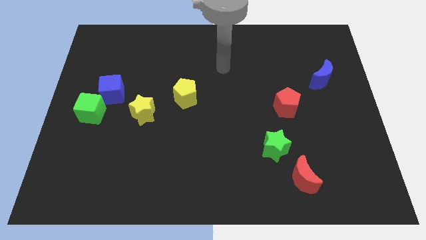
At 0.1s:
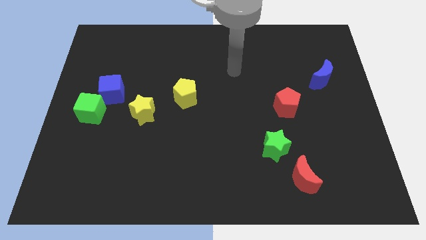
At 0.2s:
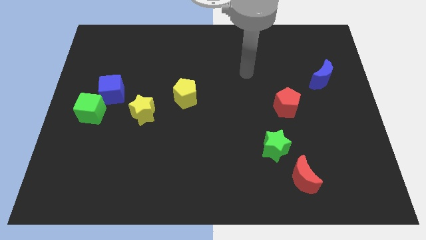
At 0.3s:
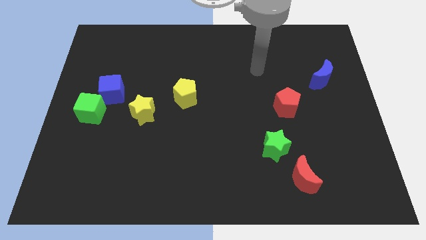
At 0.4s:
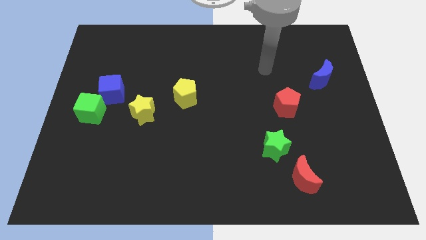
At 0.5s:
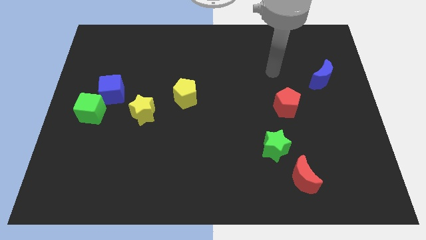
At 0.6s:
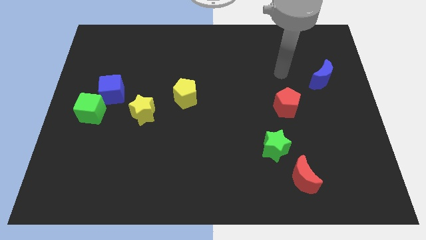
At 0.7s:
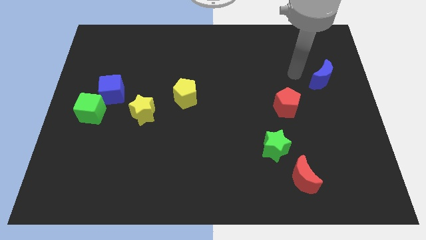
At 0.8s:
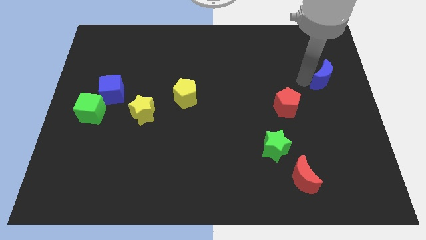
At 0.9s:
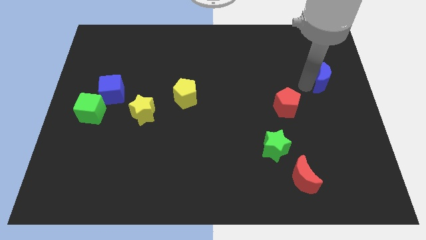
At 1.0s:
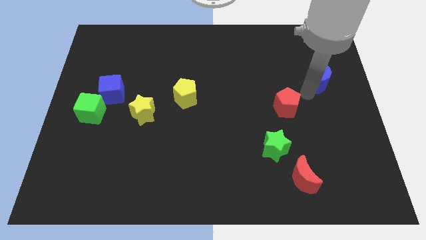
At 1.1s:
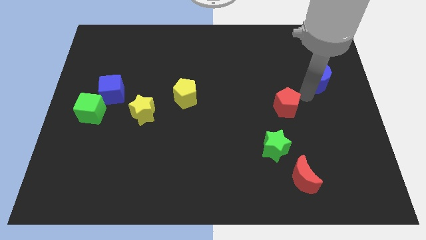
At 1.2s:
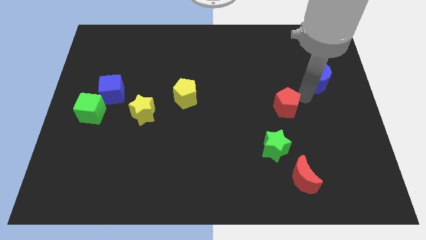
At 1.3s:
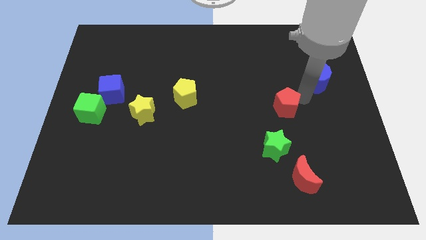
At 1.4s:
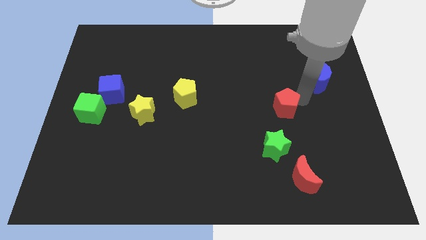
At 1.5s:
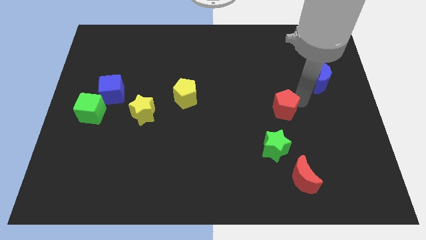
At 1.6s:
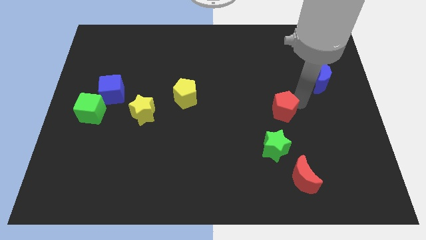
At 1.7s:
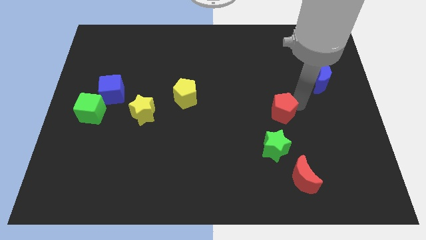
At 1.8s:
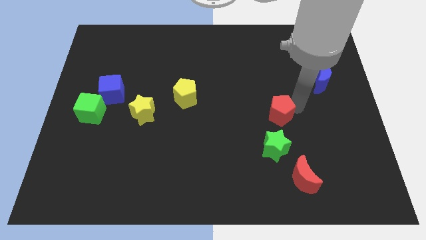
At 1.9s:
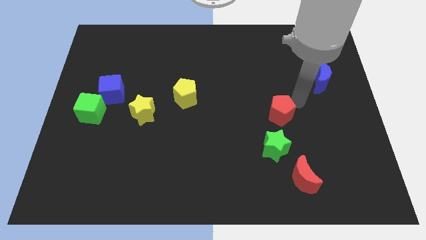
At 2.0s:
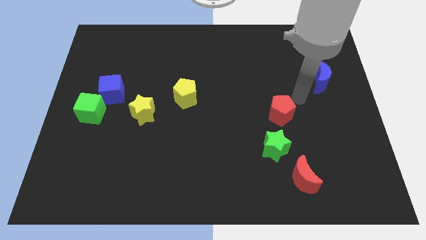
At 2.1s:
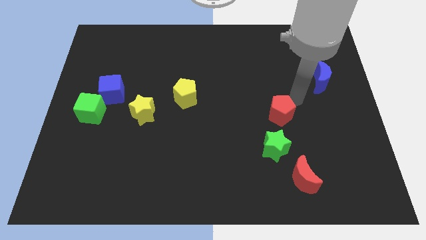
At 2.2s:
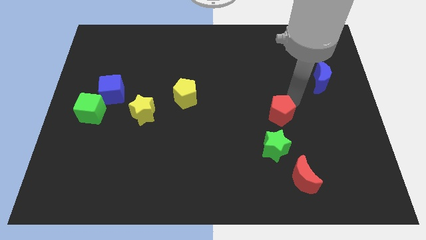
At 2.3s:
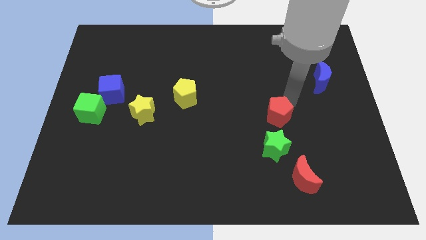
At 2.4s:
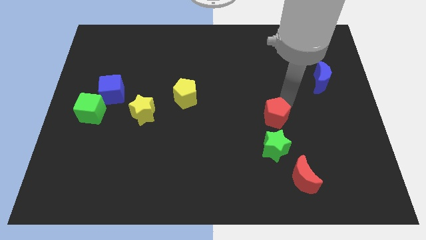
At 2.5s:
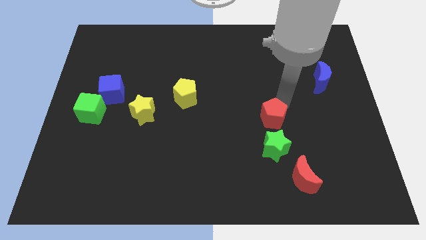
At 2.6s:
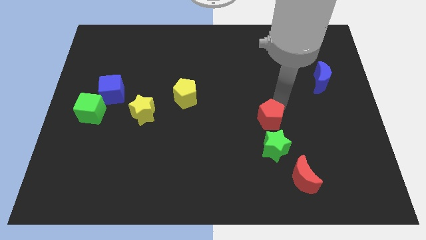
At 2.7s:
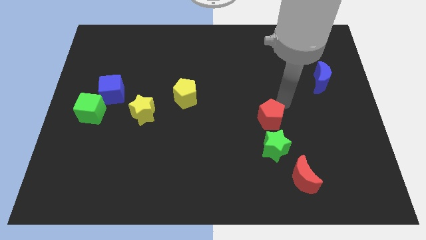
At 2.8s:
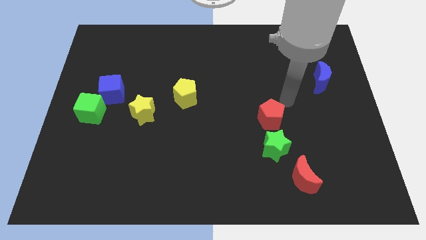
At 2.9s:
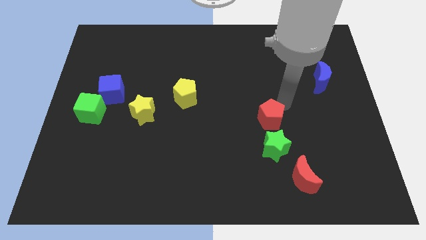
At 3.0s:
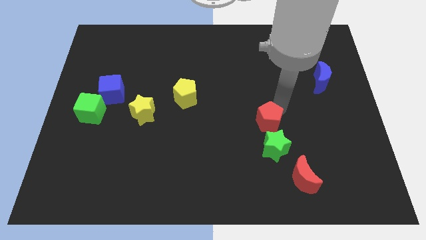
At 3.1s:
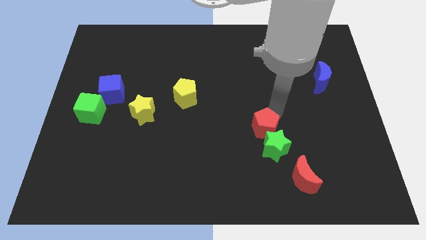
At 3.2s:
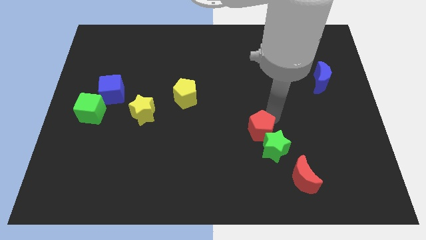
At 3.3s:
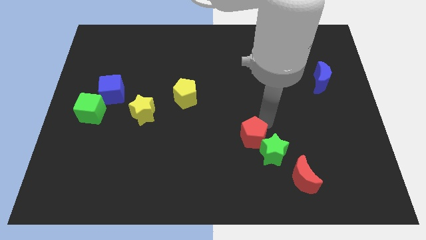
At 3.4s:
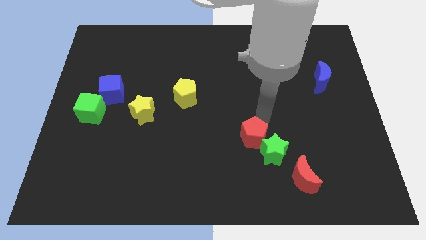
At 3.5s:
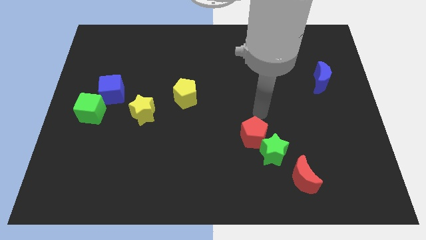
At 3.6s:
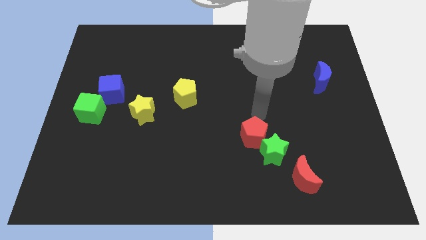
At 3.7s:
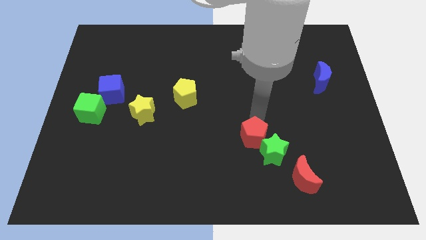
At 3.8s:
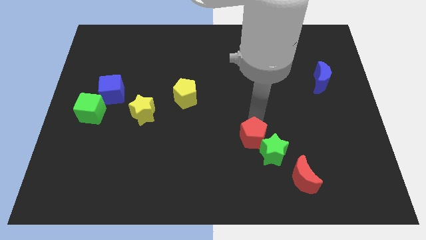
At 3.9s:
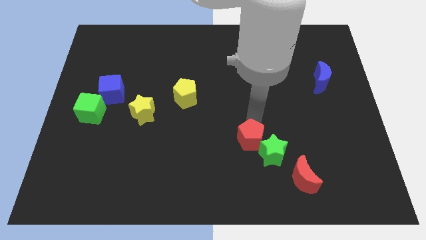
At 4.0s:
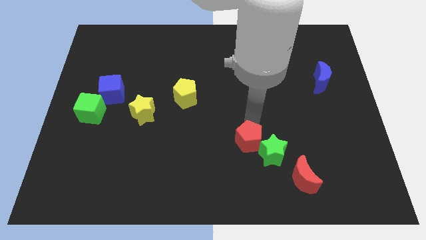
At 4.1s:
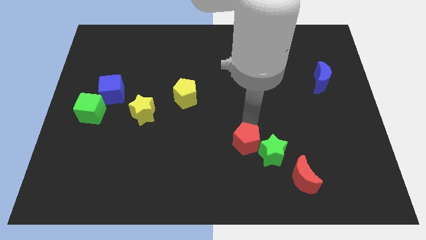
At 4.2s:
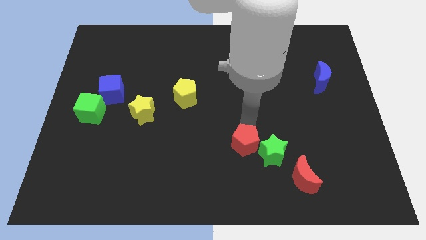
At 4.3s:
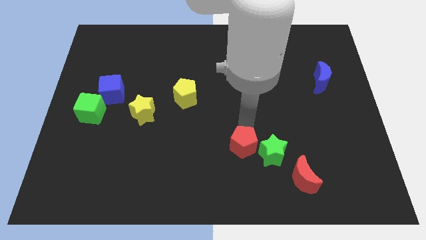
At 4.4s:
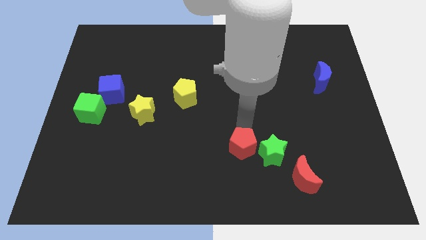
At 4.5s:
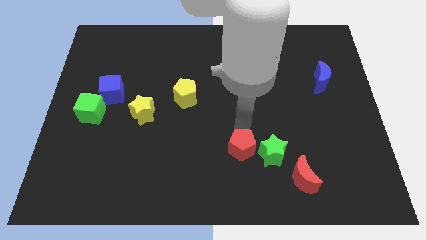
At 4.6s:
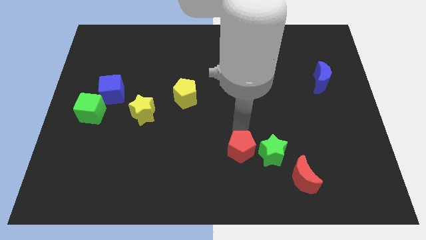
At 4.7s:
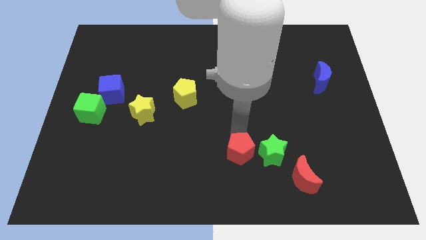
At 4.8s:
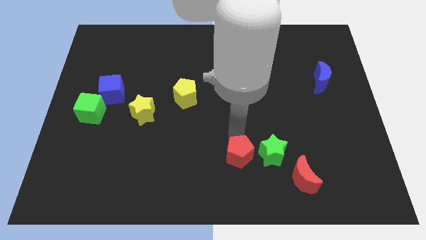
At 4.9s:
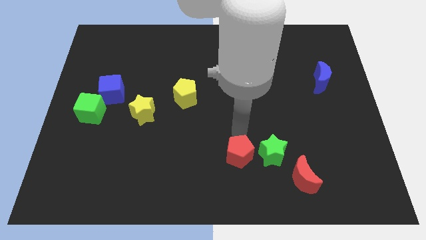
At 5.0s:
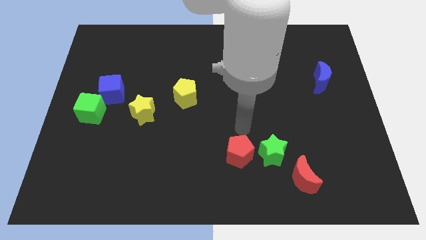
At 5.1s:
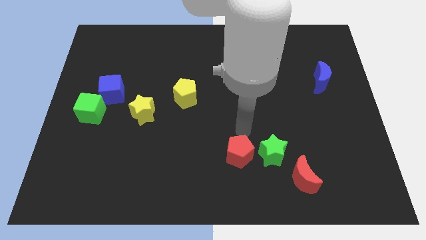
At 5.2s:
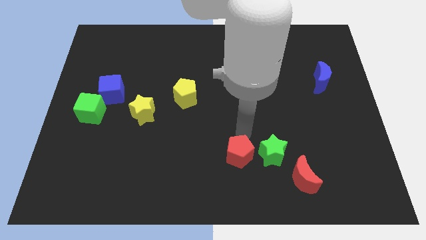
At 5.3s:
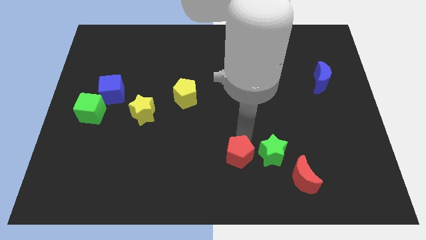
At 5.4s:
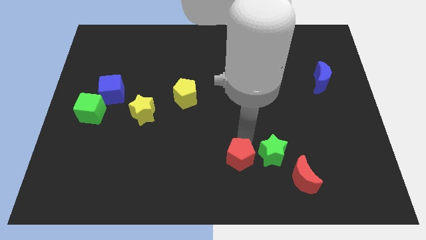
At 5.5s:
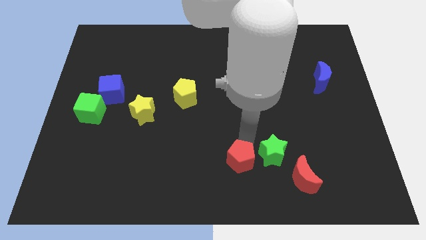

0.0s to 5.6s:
push the red pentagon to the bottom side

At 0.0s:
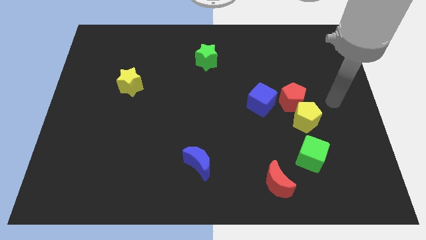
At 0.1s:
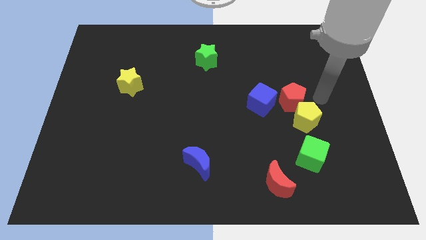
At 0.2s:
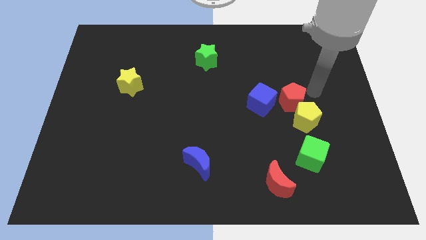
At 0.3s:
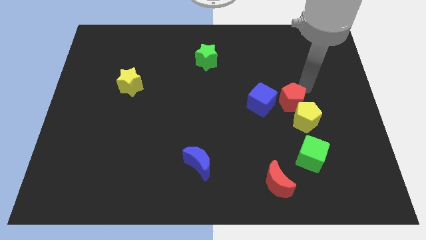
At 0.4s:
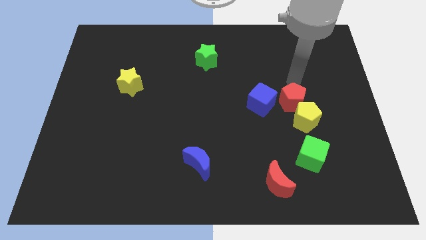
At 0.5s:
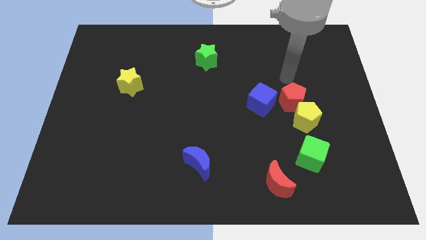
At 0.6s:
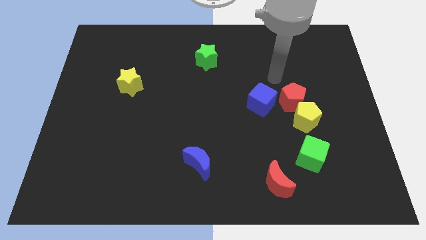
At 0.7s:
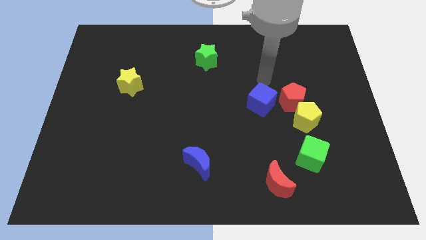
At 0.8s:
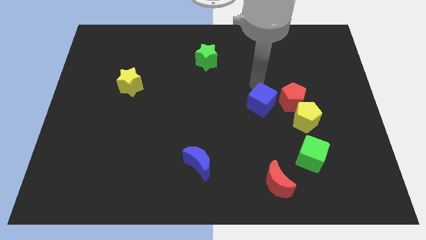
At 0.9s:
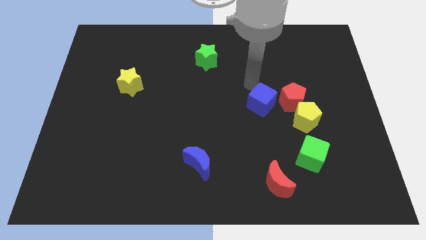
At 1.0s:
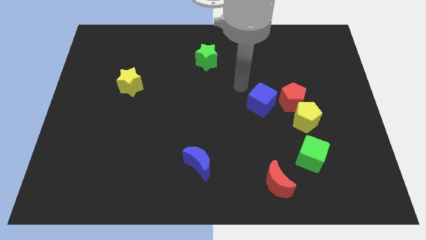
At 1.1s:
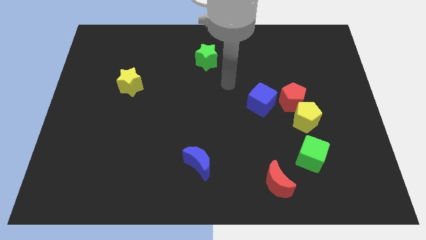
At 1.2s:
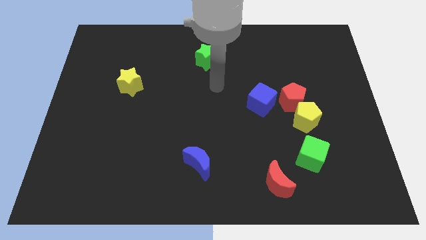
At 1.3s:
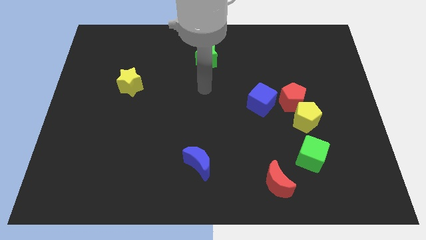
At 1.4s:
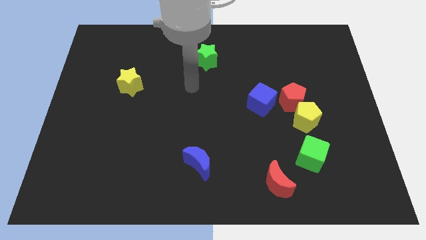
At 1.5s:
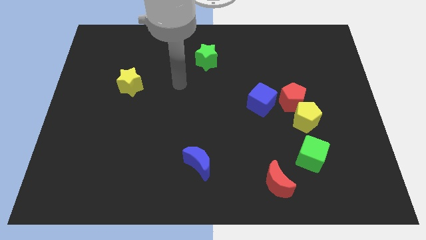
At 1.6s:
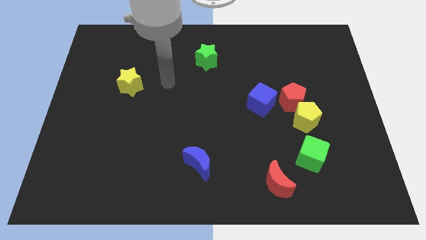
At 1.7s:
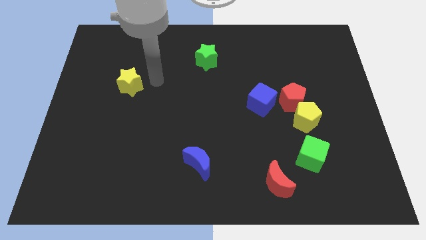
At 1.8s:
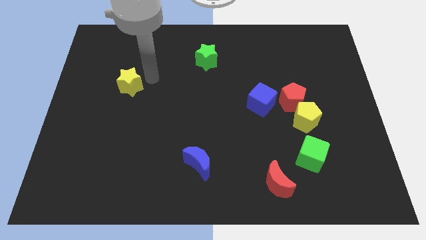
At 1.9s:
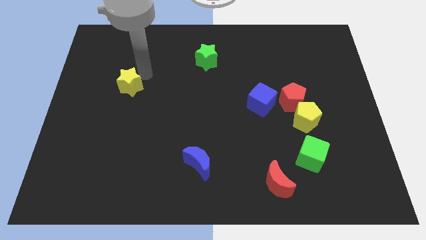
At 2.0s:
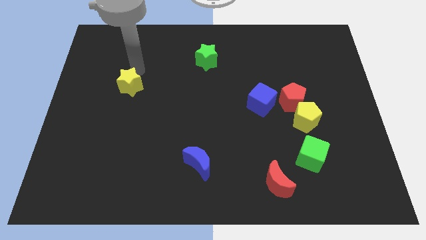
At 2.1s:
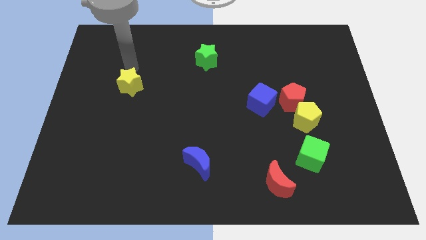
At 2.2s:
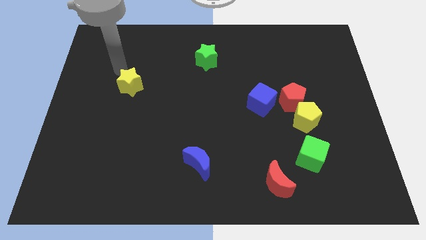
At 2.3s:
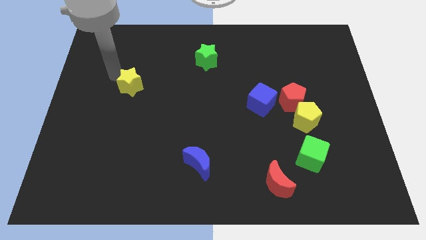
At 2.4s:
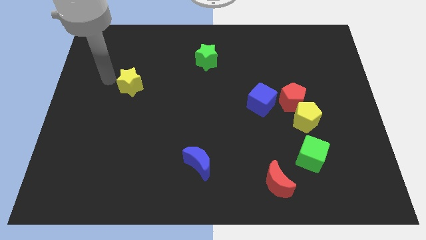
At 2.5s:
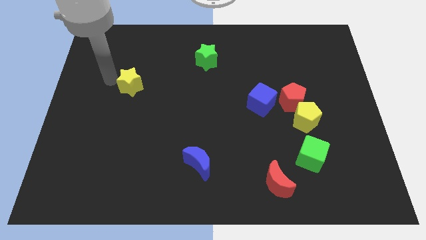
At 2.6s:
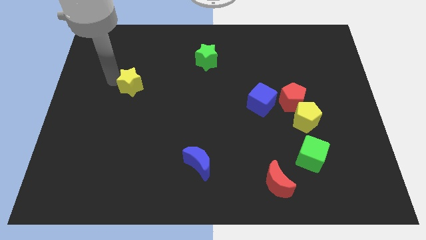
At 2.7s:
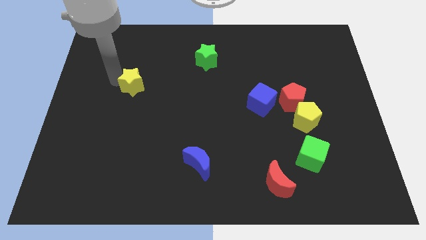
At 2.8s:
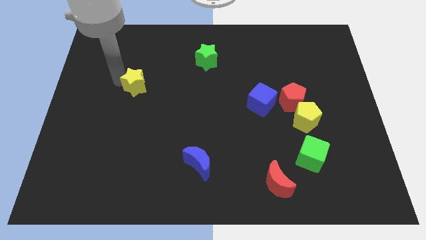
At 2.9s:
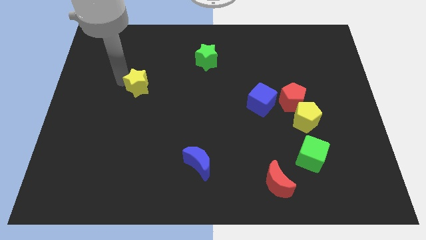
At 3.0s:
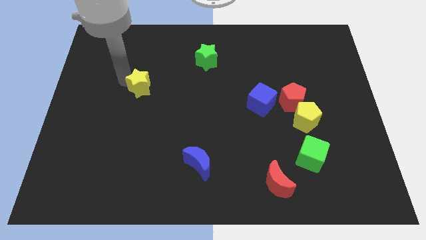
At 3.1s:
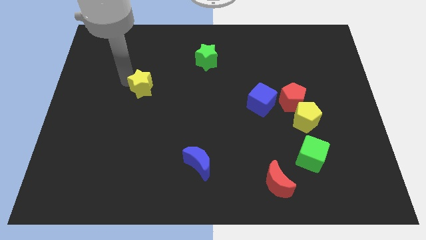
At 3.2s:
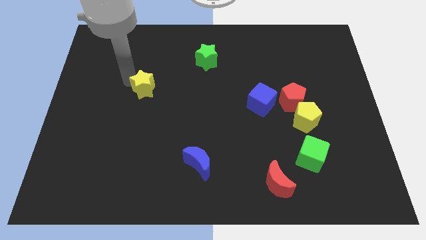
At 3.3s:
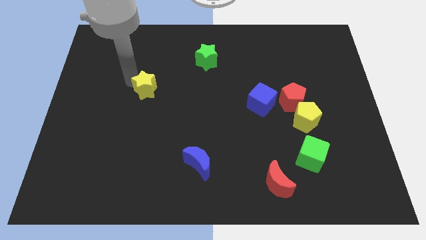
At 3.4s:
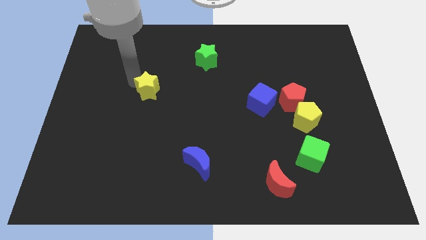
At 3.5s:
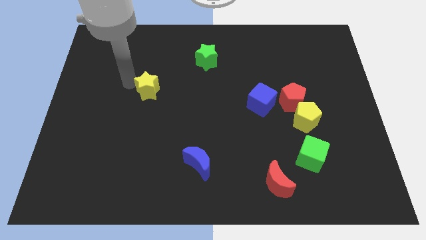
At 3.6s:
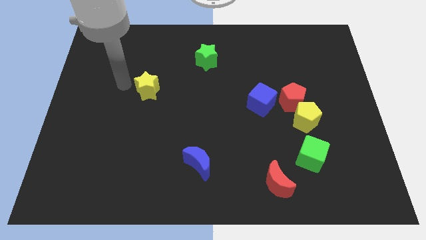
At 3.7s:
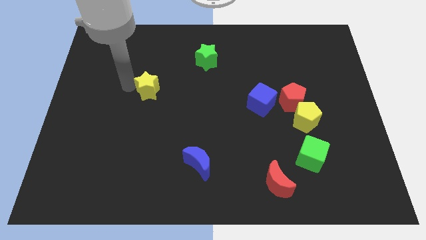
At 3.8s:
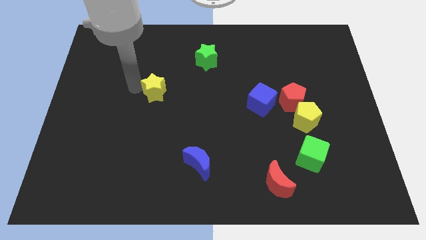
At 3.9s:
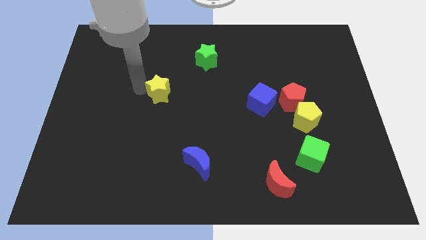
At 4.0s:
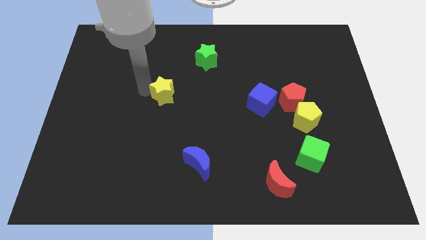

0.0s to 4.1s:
push the yellow star to the center of the board
